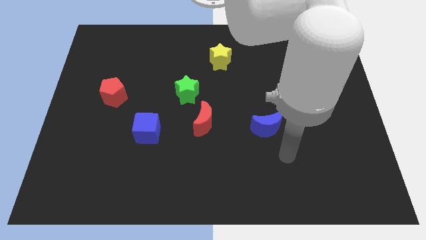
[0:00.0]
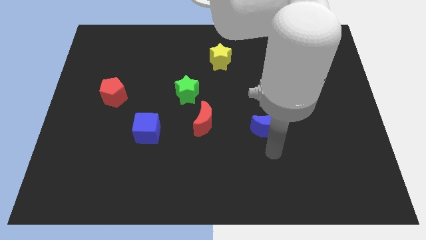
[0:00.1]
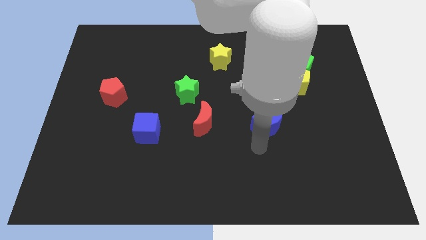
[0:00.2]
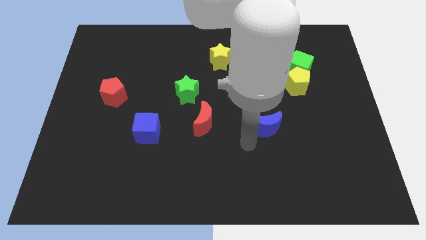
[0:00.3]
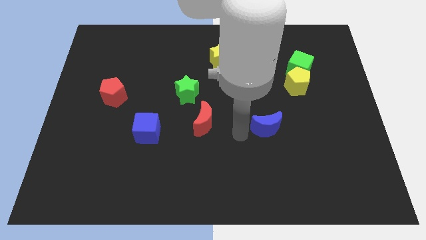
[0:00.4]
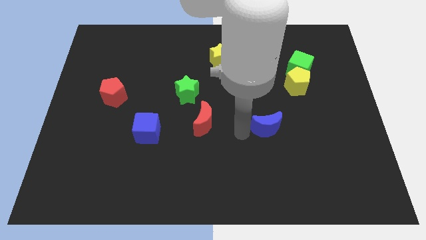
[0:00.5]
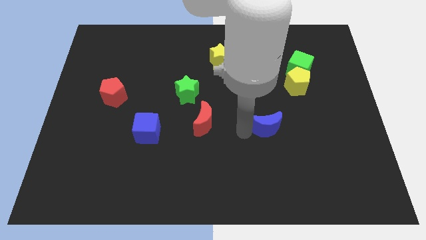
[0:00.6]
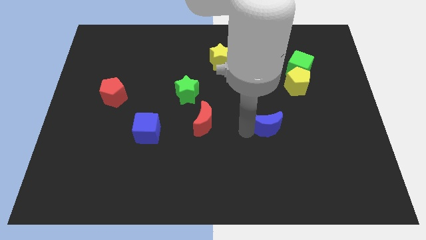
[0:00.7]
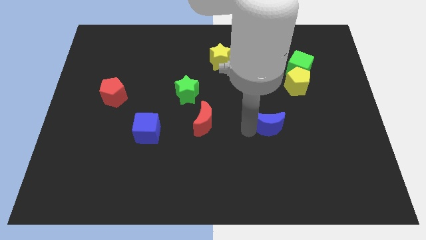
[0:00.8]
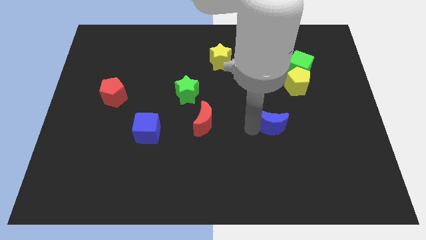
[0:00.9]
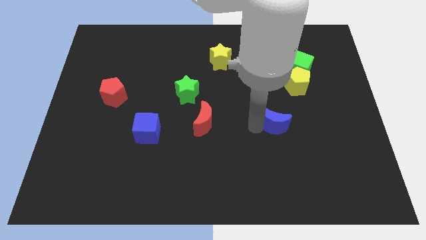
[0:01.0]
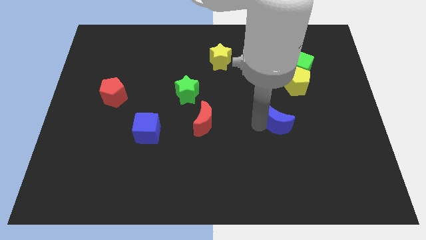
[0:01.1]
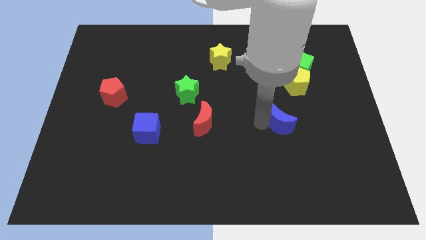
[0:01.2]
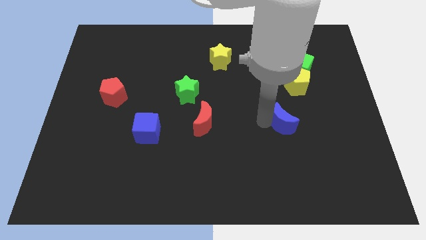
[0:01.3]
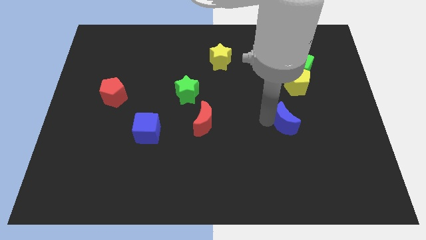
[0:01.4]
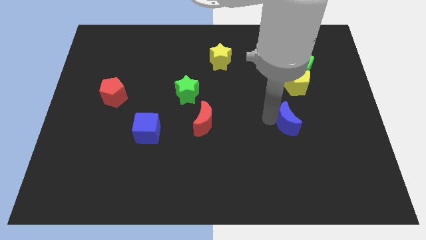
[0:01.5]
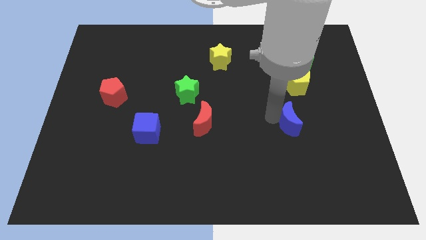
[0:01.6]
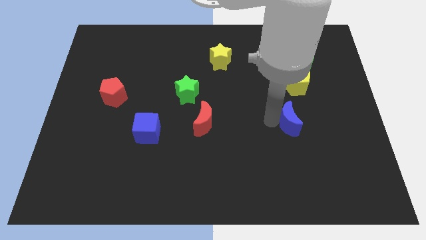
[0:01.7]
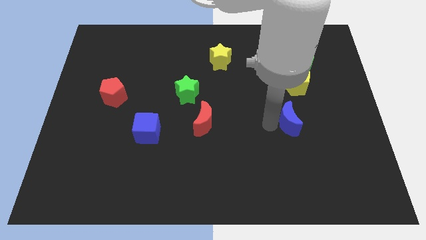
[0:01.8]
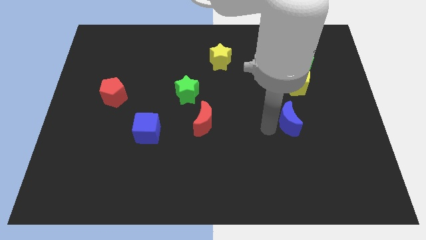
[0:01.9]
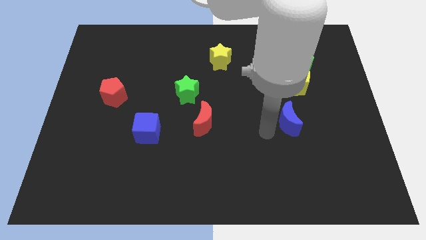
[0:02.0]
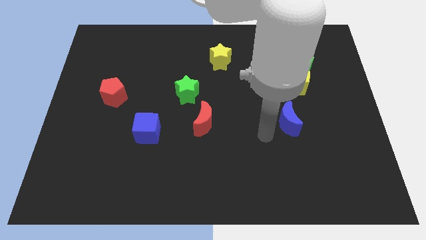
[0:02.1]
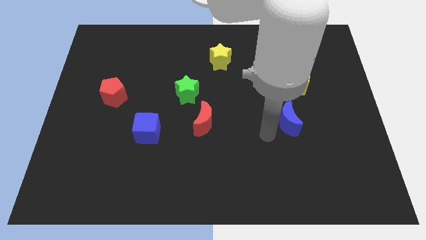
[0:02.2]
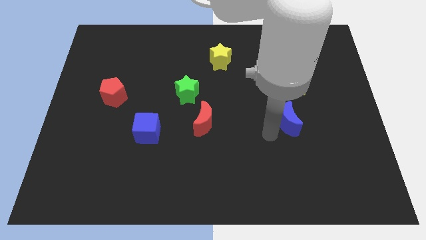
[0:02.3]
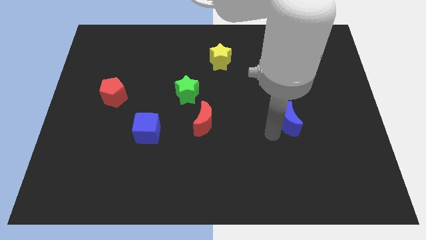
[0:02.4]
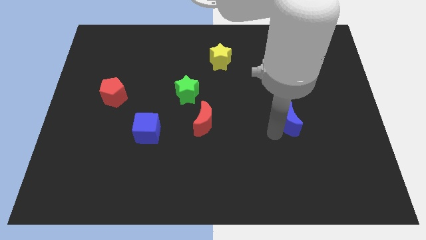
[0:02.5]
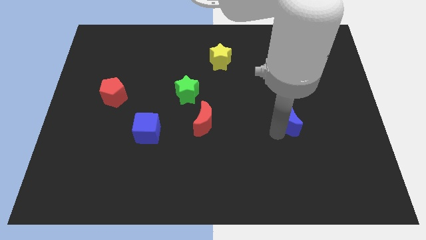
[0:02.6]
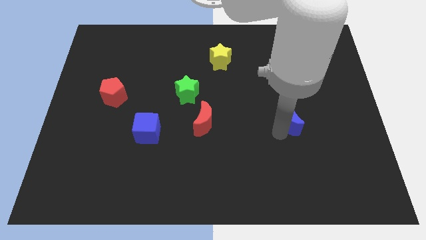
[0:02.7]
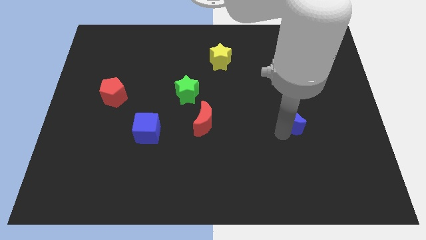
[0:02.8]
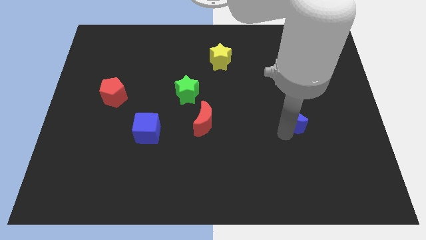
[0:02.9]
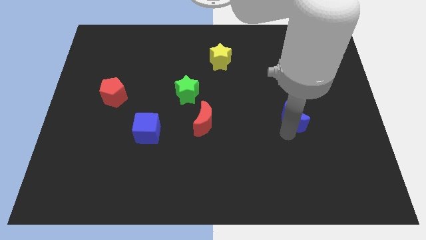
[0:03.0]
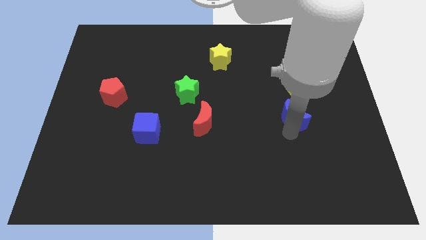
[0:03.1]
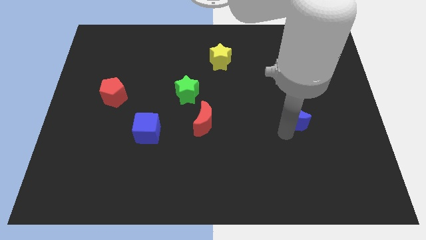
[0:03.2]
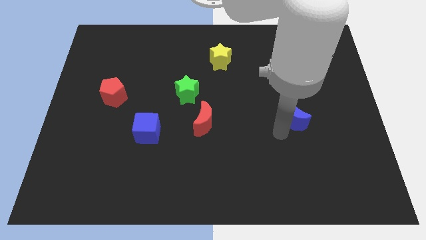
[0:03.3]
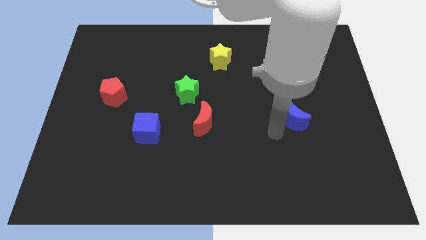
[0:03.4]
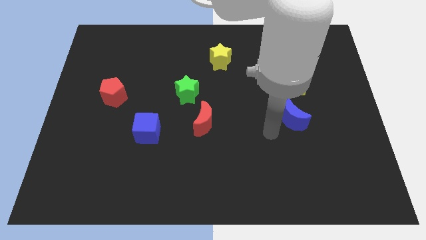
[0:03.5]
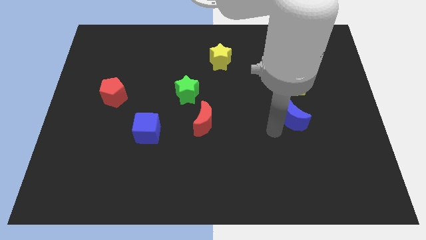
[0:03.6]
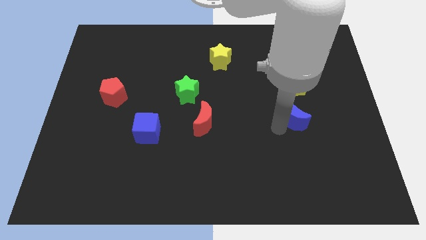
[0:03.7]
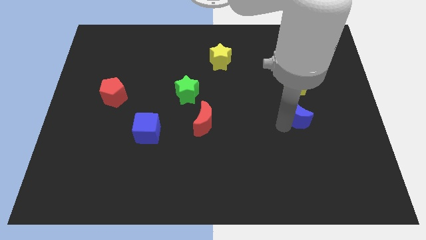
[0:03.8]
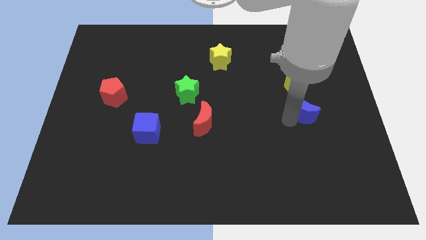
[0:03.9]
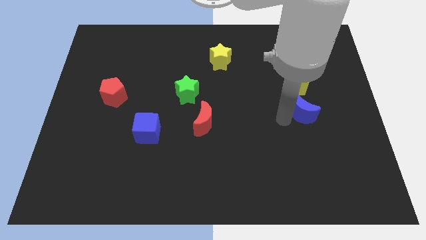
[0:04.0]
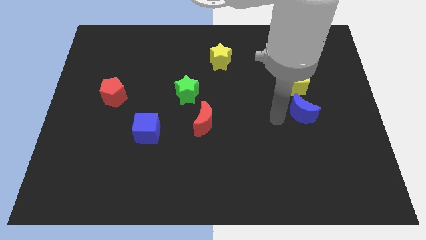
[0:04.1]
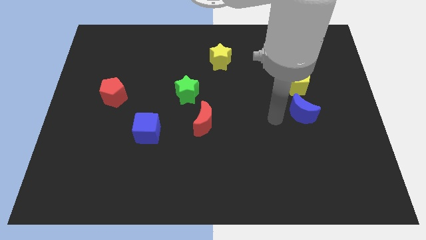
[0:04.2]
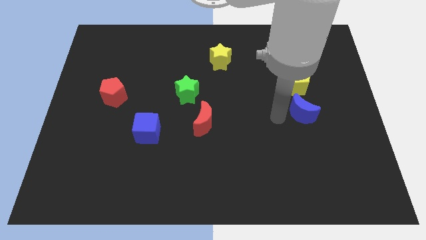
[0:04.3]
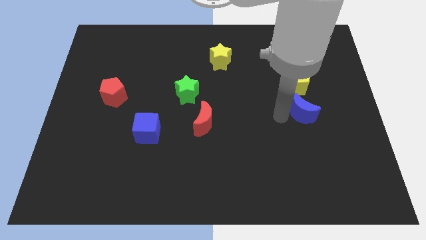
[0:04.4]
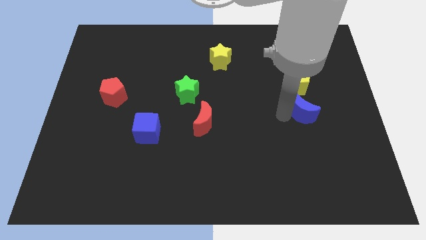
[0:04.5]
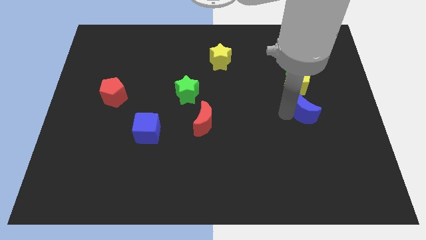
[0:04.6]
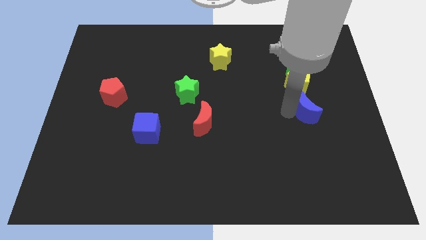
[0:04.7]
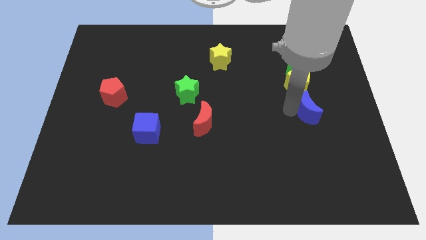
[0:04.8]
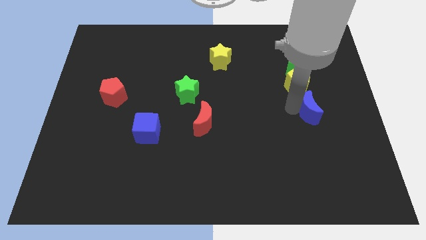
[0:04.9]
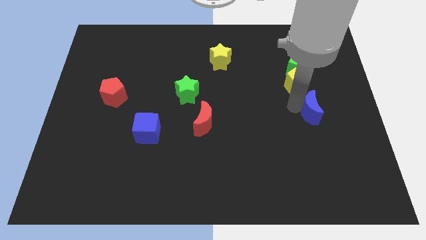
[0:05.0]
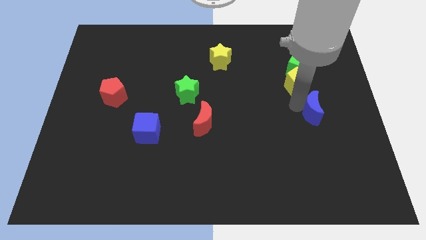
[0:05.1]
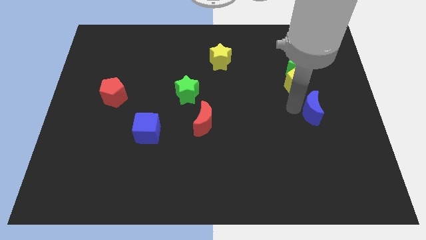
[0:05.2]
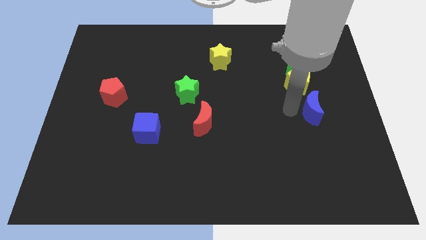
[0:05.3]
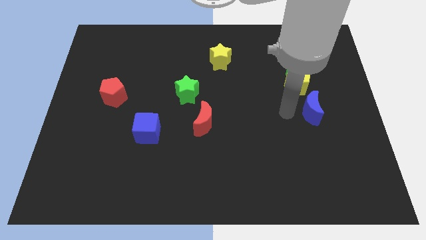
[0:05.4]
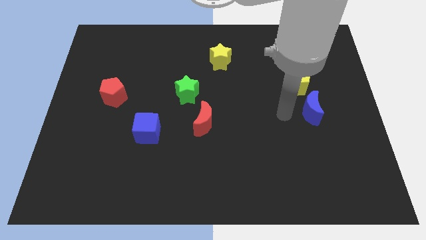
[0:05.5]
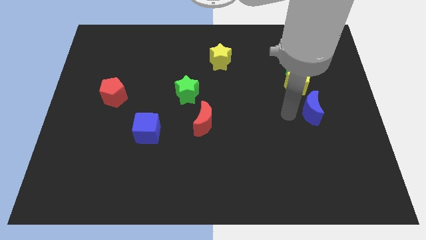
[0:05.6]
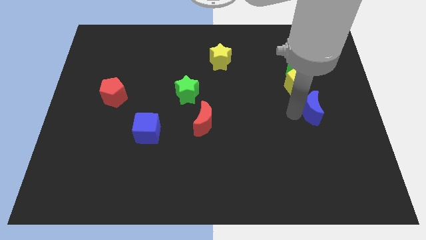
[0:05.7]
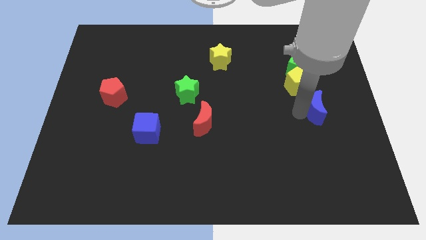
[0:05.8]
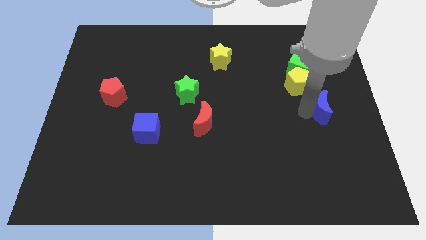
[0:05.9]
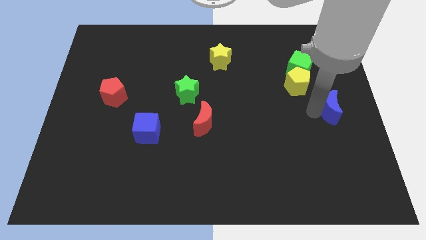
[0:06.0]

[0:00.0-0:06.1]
slide the blue moon to the right side of the board

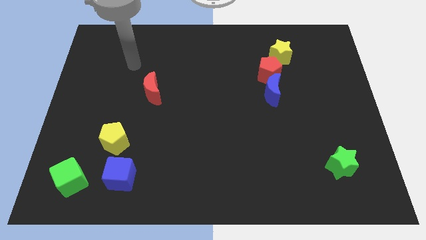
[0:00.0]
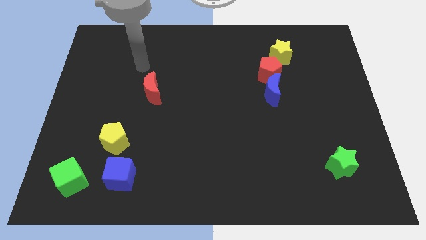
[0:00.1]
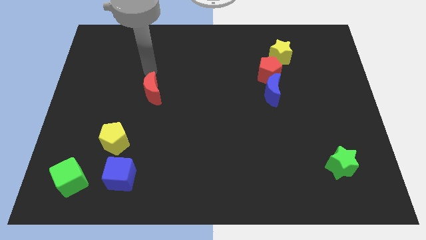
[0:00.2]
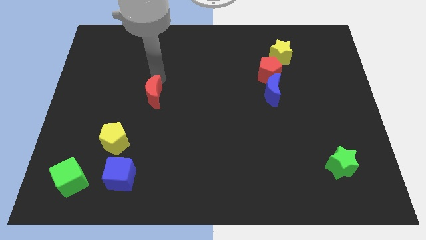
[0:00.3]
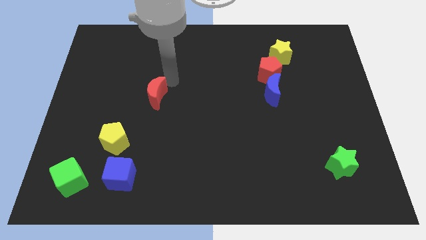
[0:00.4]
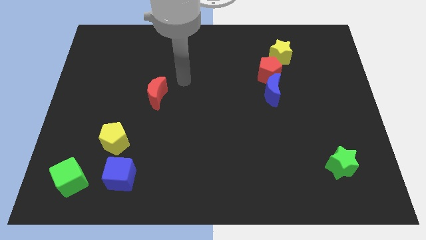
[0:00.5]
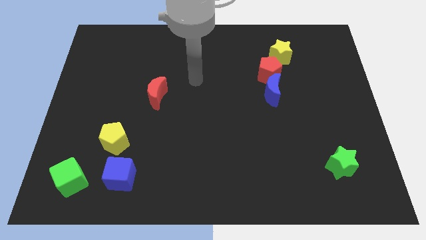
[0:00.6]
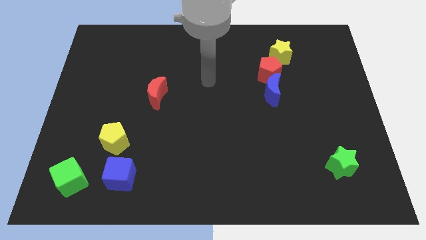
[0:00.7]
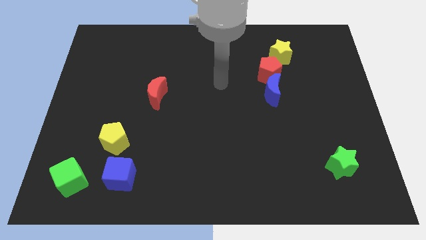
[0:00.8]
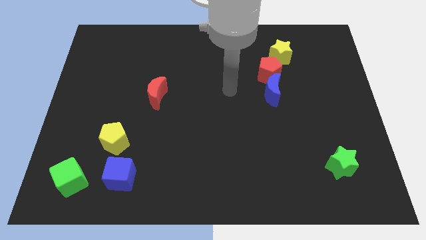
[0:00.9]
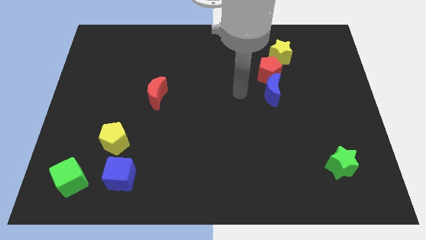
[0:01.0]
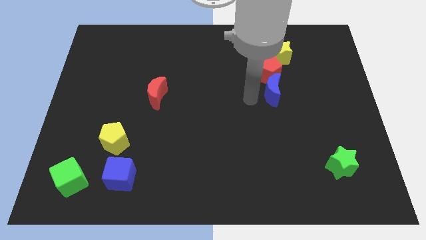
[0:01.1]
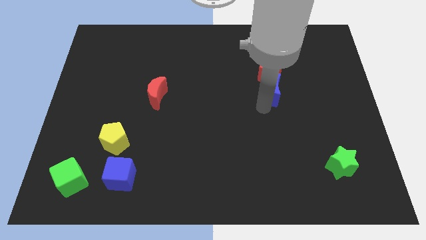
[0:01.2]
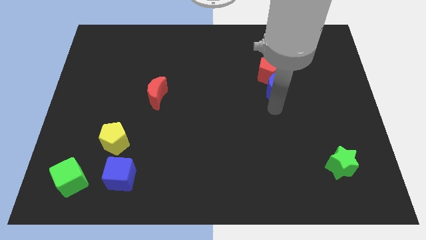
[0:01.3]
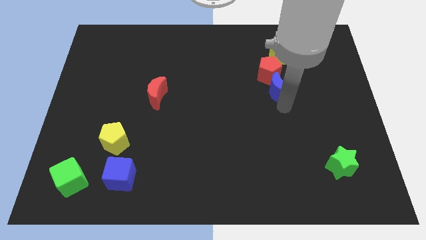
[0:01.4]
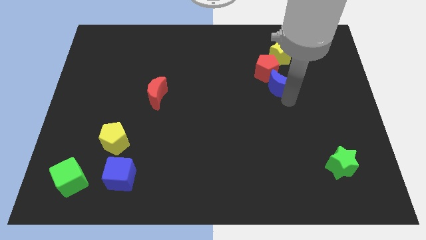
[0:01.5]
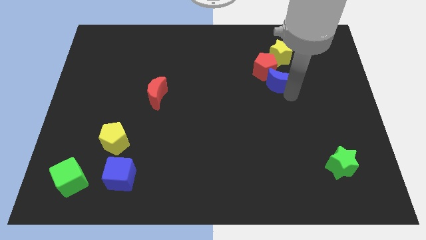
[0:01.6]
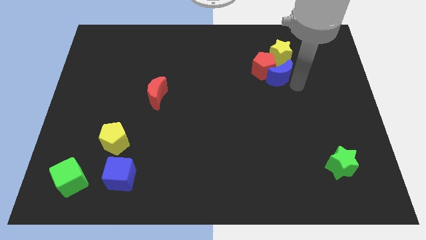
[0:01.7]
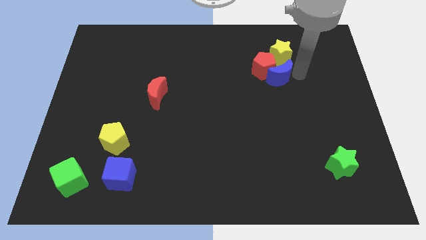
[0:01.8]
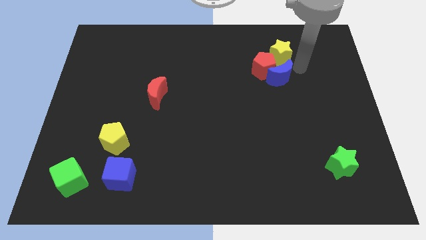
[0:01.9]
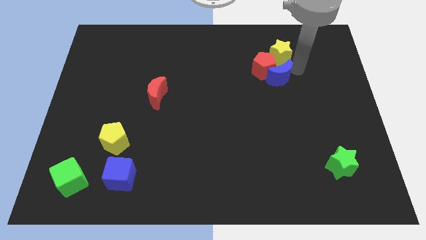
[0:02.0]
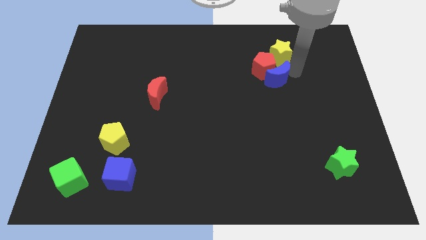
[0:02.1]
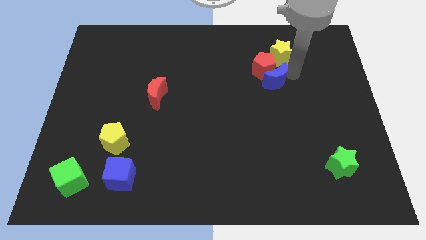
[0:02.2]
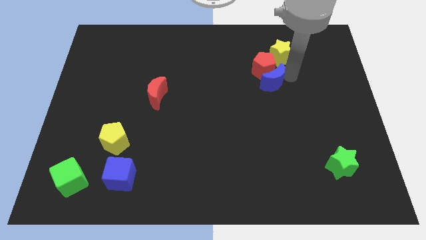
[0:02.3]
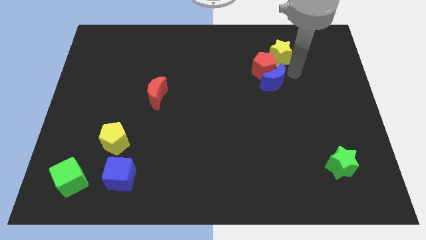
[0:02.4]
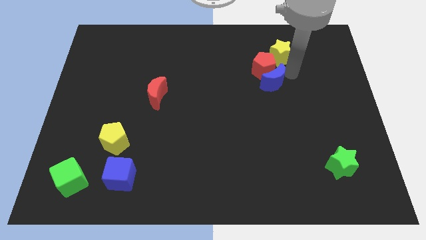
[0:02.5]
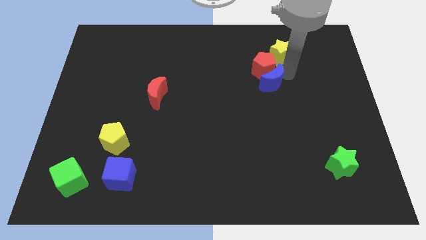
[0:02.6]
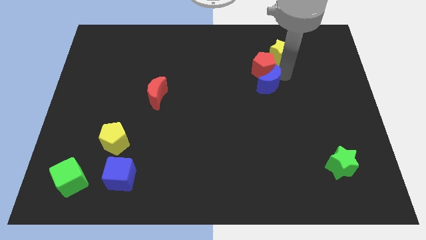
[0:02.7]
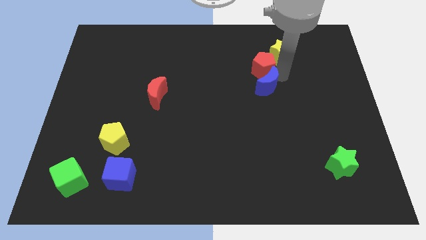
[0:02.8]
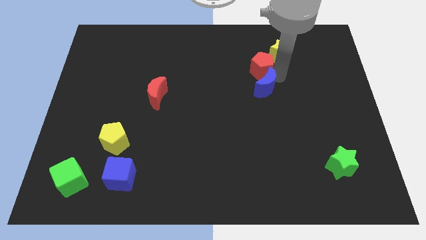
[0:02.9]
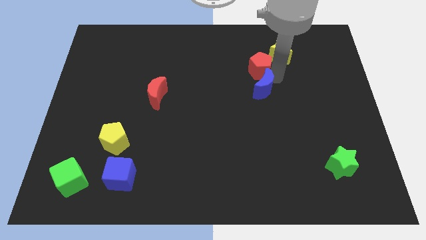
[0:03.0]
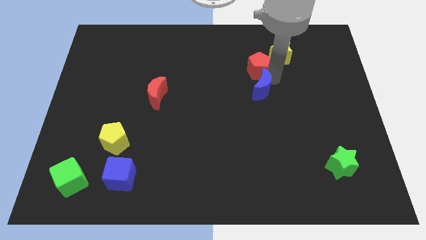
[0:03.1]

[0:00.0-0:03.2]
slide the blue moon to the center of the board
